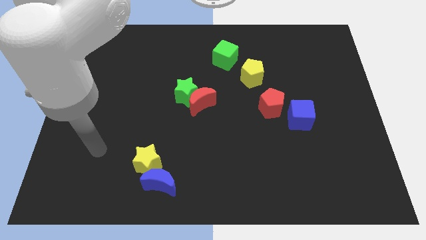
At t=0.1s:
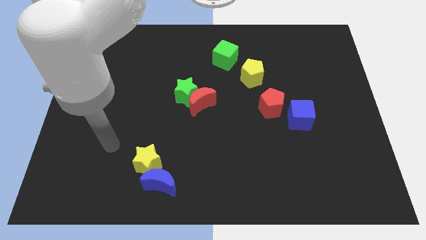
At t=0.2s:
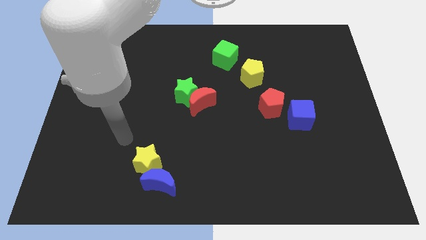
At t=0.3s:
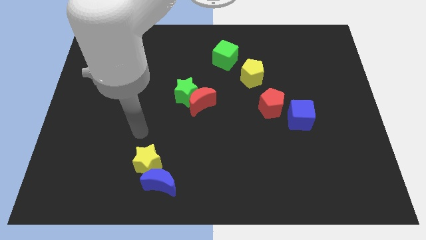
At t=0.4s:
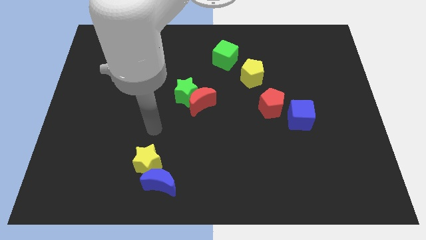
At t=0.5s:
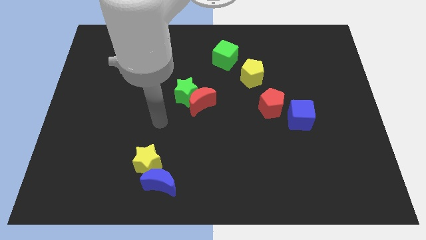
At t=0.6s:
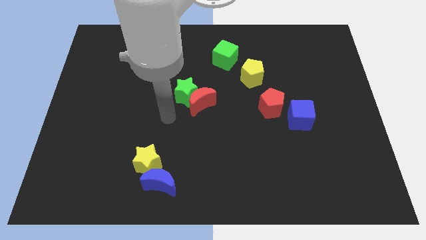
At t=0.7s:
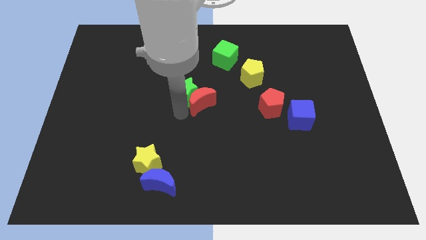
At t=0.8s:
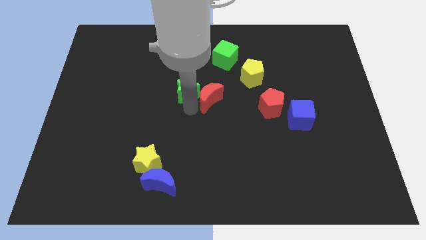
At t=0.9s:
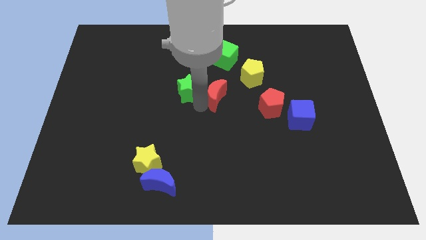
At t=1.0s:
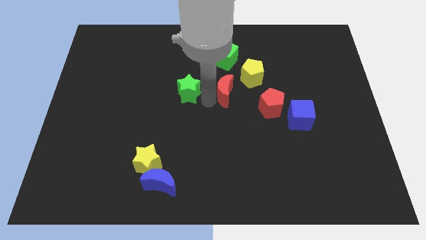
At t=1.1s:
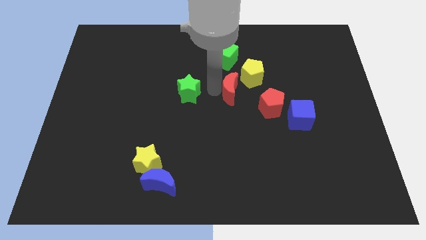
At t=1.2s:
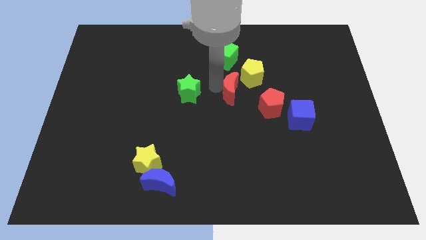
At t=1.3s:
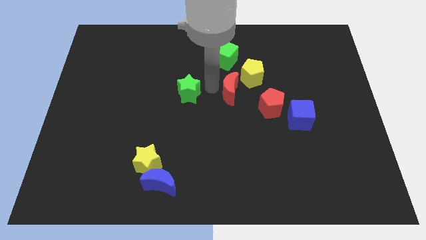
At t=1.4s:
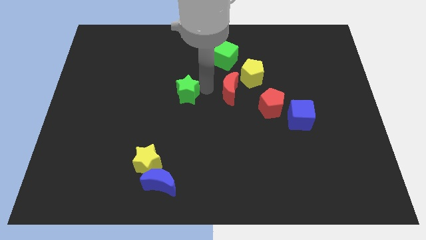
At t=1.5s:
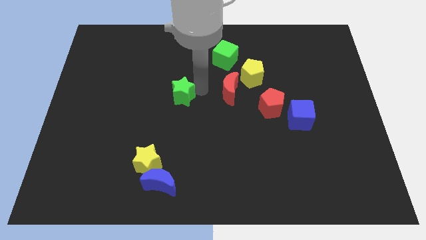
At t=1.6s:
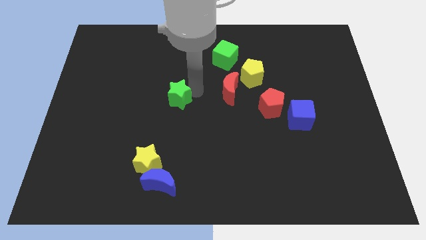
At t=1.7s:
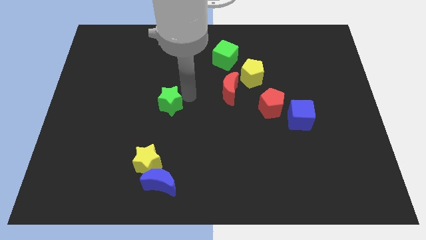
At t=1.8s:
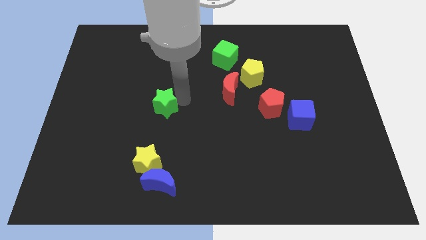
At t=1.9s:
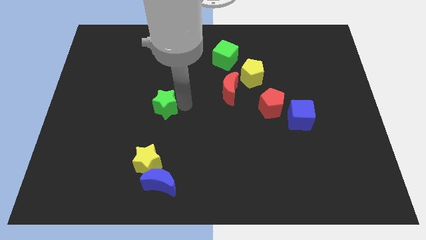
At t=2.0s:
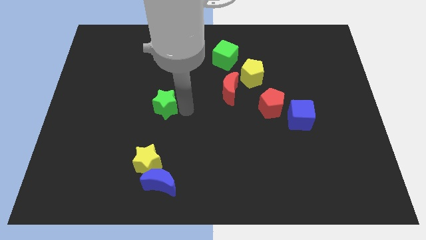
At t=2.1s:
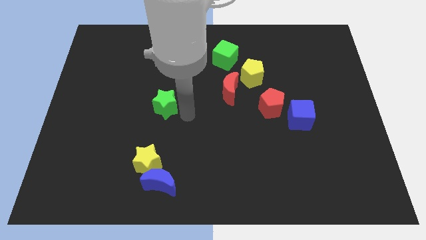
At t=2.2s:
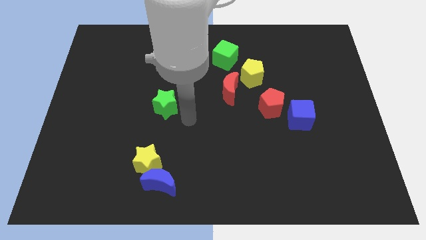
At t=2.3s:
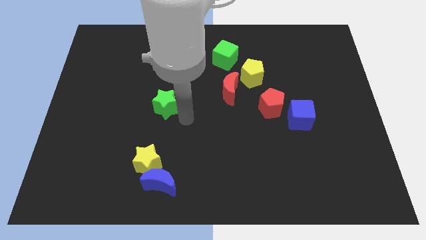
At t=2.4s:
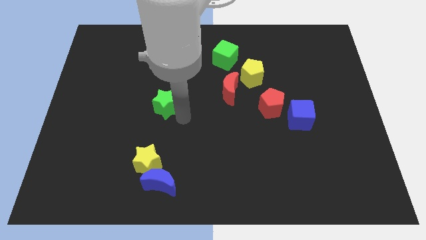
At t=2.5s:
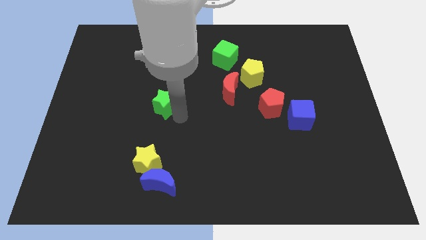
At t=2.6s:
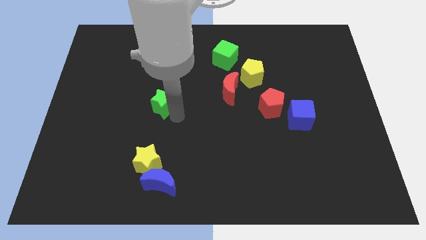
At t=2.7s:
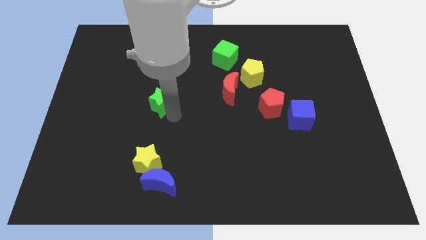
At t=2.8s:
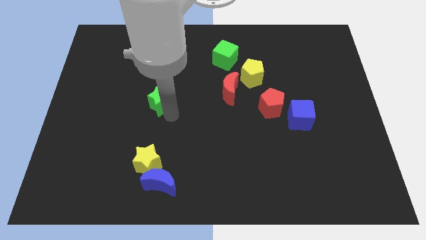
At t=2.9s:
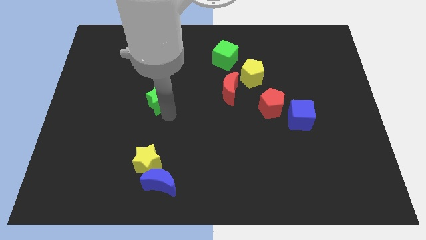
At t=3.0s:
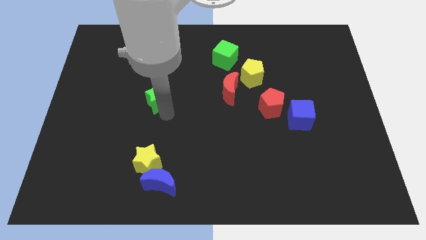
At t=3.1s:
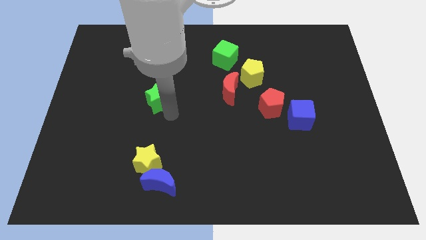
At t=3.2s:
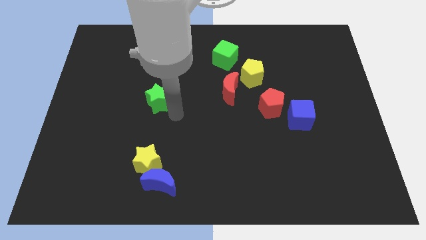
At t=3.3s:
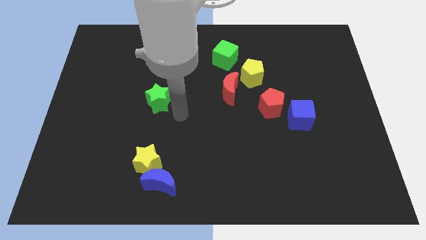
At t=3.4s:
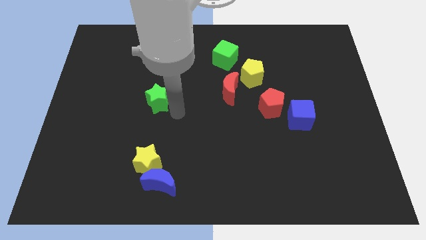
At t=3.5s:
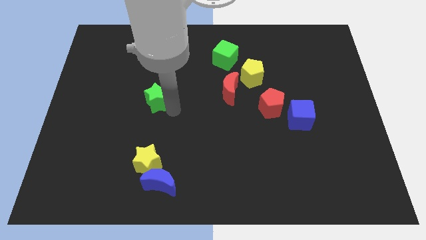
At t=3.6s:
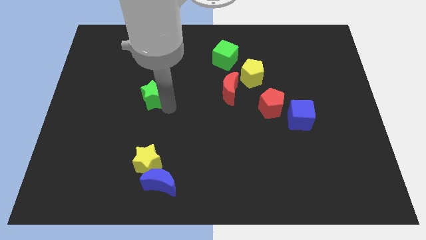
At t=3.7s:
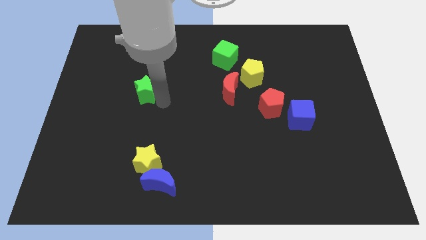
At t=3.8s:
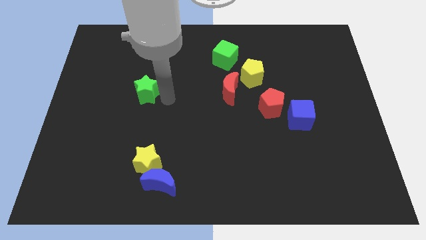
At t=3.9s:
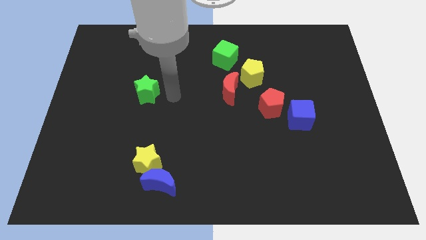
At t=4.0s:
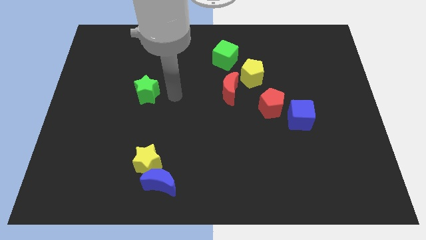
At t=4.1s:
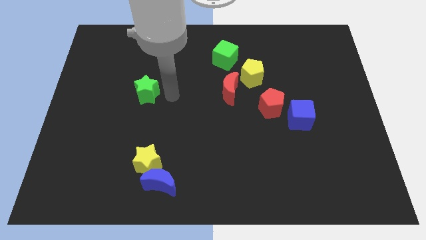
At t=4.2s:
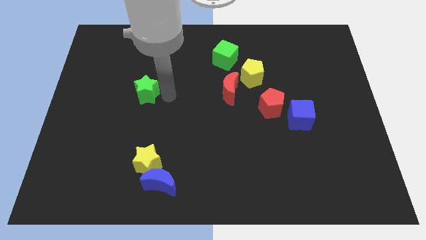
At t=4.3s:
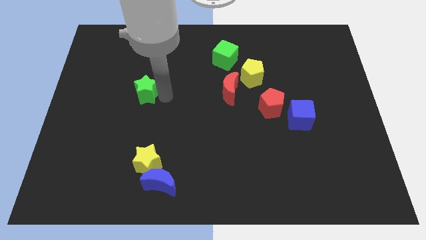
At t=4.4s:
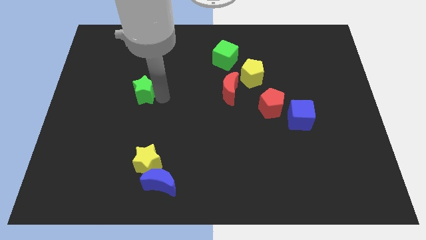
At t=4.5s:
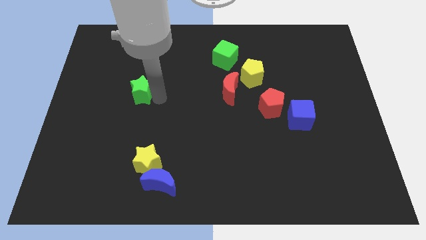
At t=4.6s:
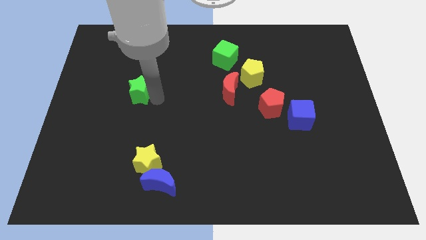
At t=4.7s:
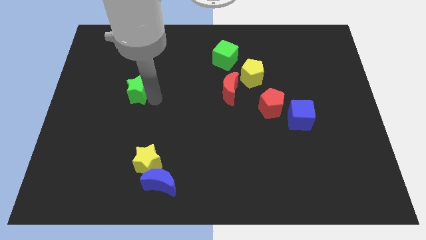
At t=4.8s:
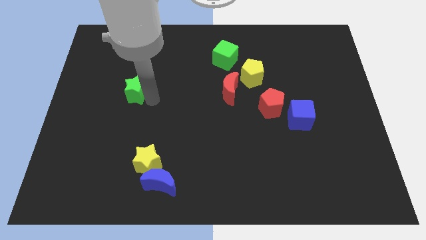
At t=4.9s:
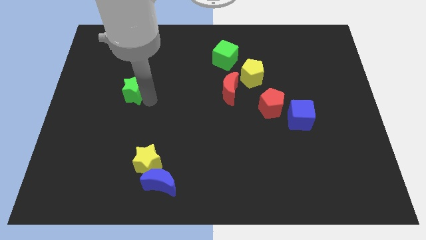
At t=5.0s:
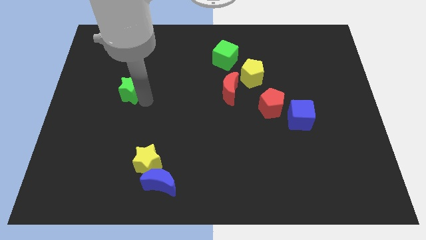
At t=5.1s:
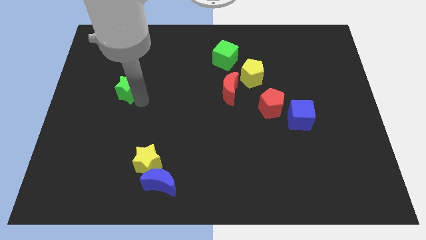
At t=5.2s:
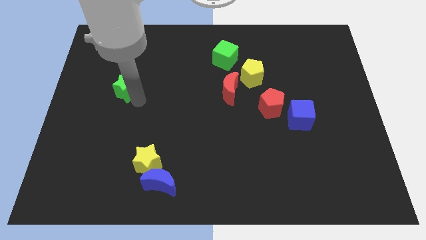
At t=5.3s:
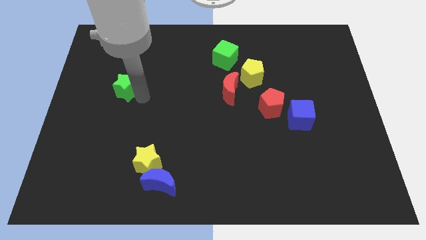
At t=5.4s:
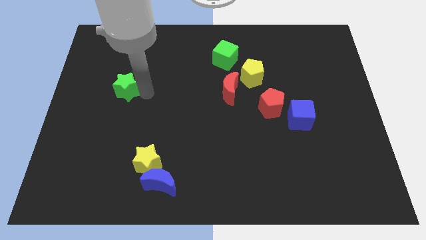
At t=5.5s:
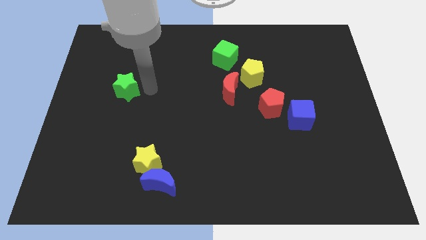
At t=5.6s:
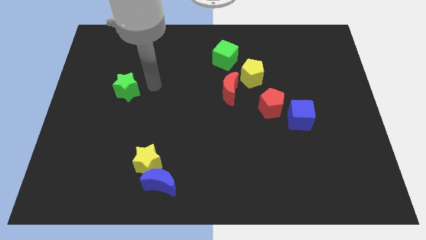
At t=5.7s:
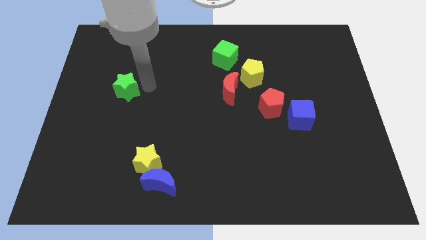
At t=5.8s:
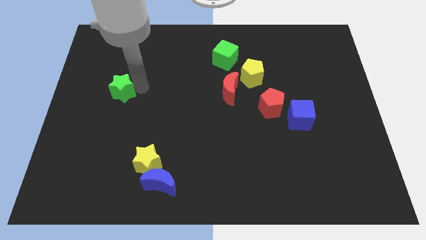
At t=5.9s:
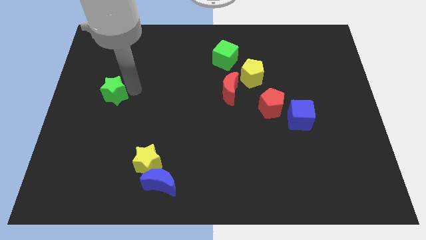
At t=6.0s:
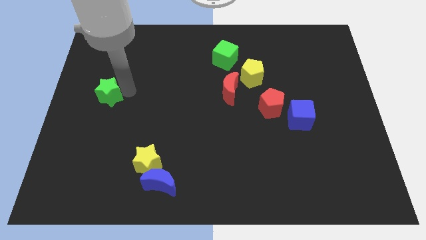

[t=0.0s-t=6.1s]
put the green star to the left side of the board
